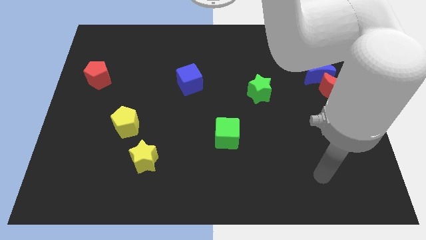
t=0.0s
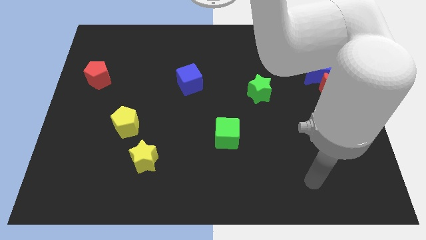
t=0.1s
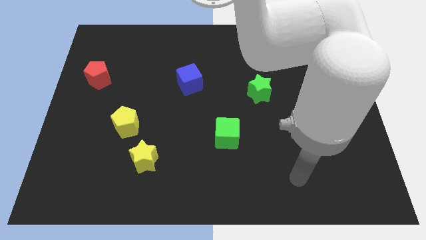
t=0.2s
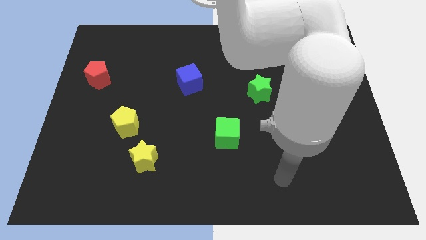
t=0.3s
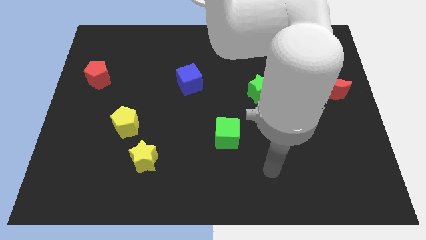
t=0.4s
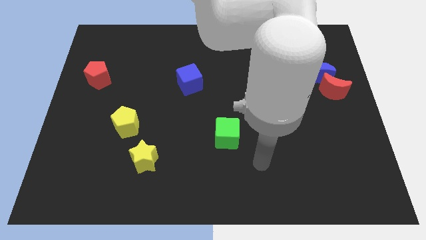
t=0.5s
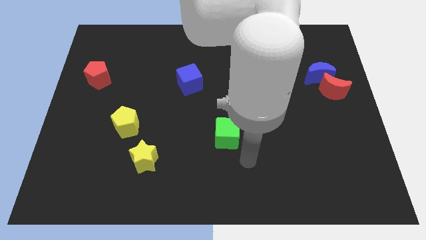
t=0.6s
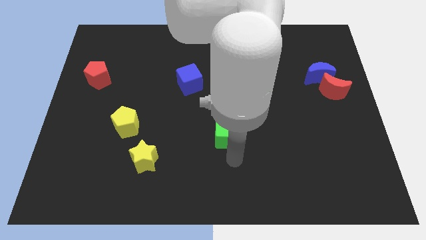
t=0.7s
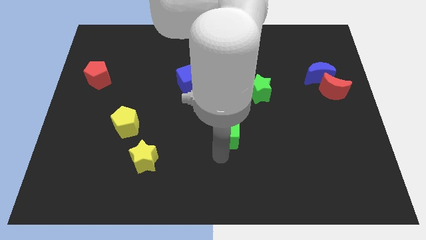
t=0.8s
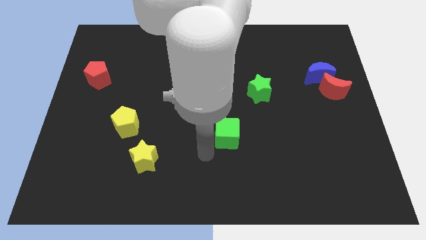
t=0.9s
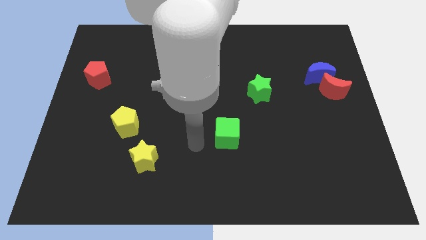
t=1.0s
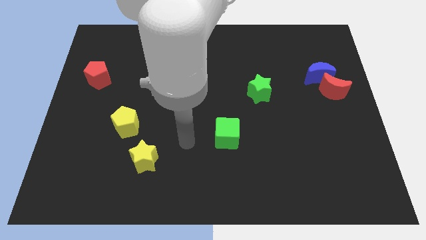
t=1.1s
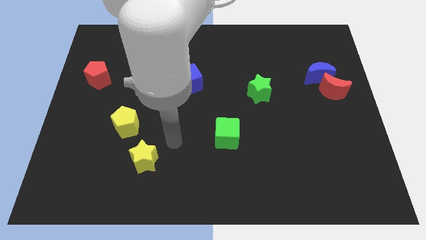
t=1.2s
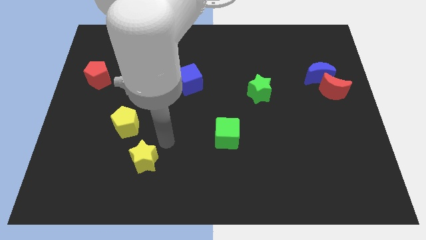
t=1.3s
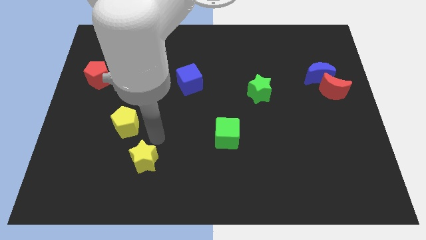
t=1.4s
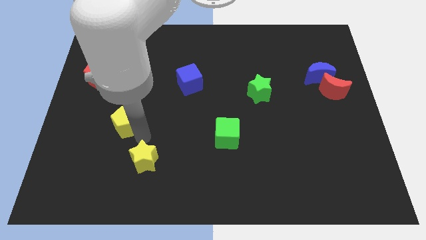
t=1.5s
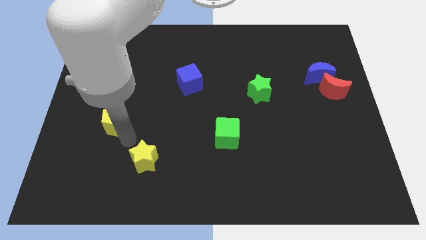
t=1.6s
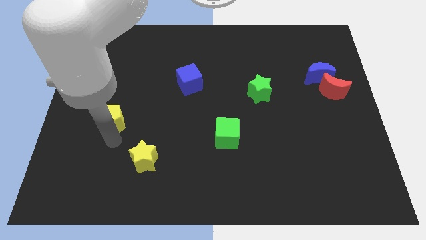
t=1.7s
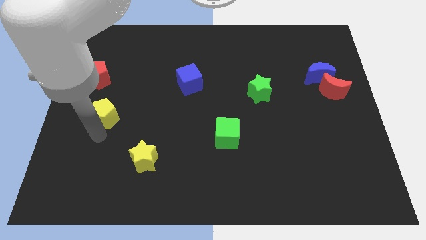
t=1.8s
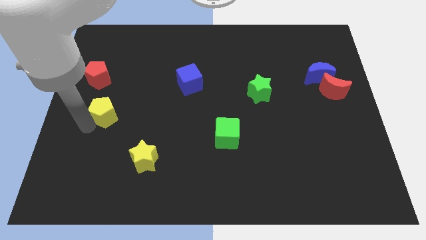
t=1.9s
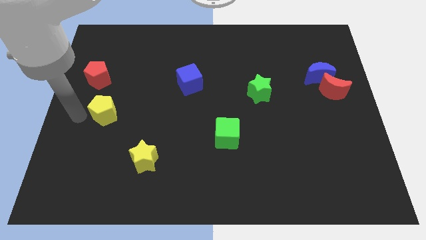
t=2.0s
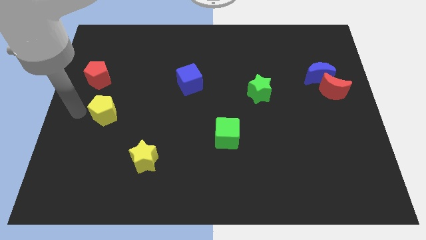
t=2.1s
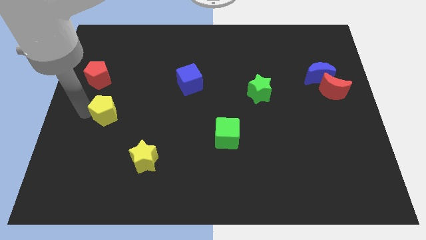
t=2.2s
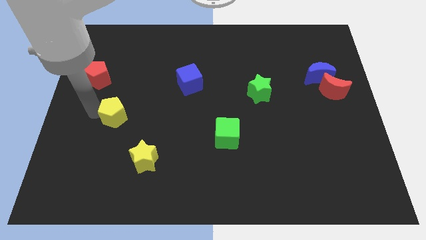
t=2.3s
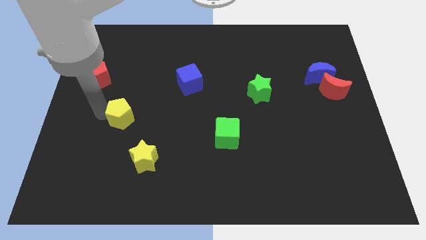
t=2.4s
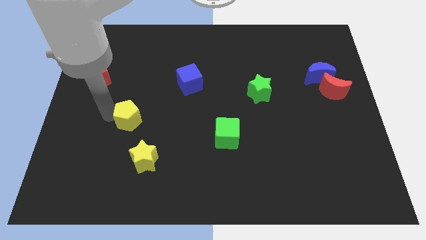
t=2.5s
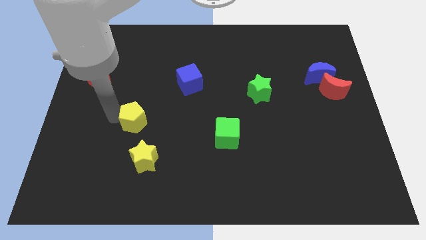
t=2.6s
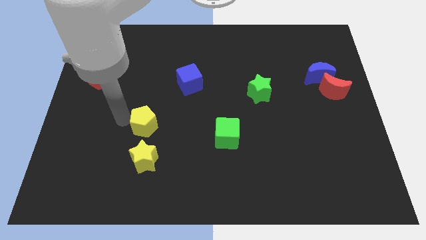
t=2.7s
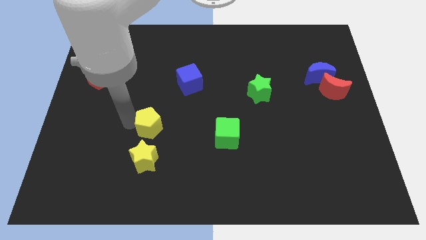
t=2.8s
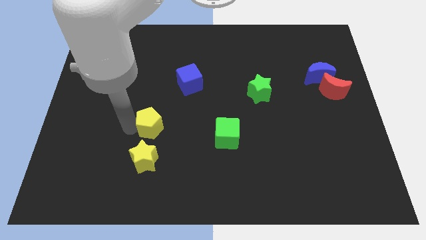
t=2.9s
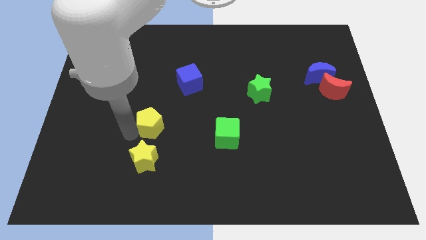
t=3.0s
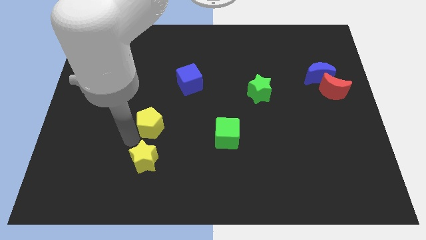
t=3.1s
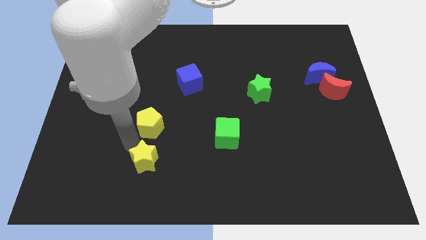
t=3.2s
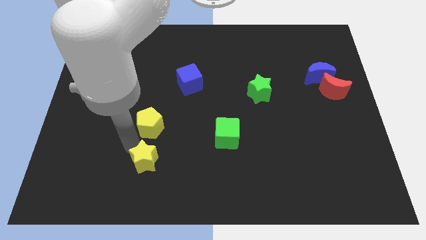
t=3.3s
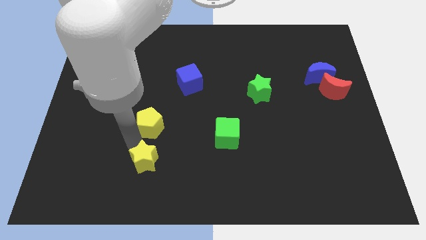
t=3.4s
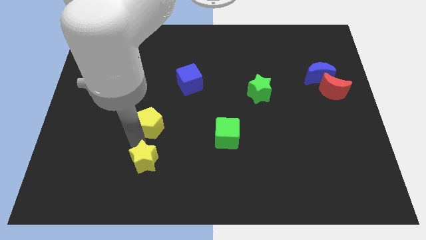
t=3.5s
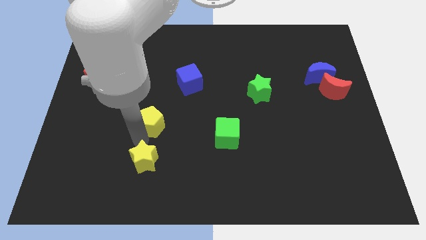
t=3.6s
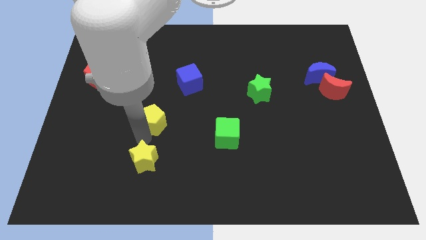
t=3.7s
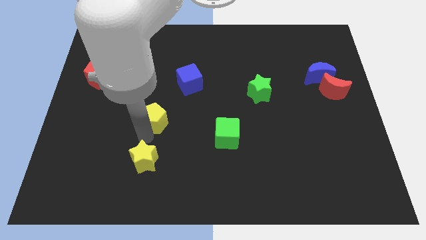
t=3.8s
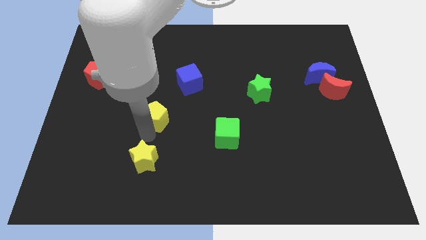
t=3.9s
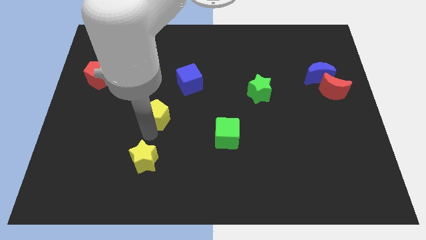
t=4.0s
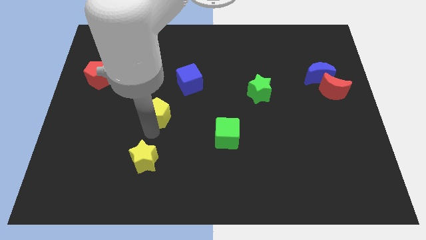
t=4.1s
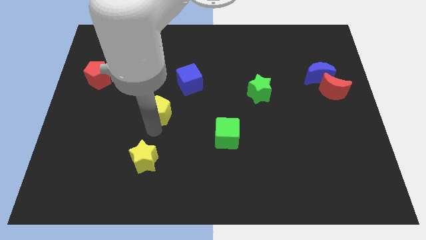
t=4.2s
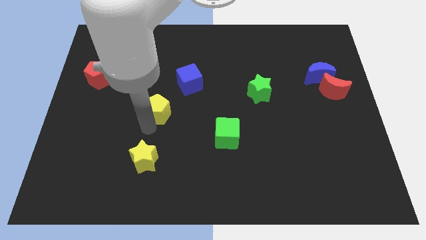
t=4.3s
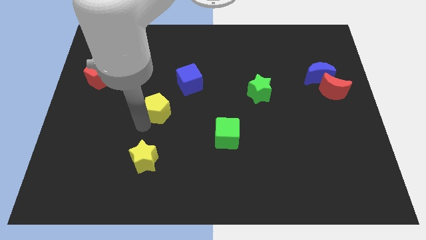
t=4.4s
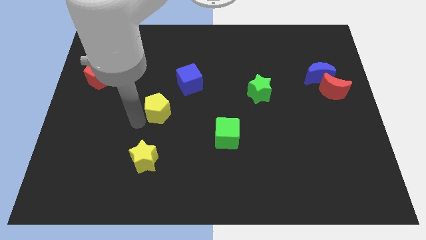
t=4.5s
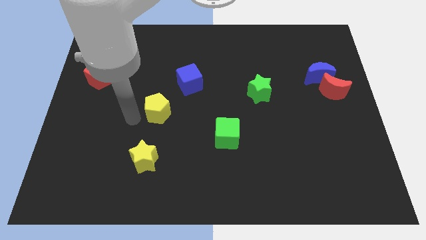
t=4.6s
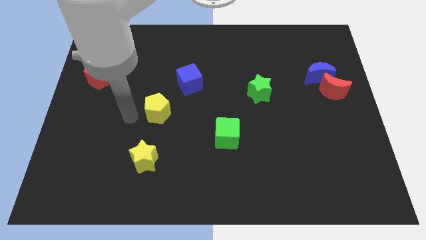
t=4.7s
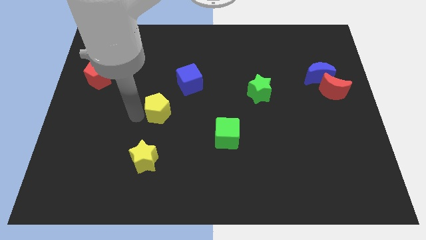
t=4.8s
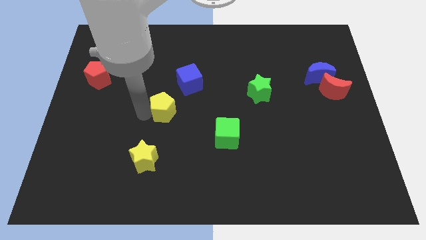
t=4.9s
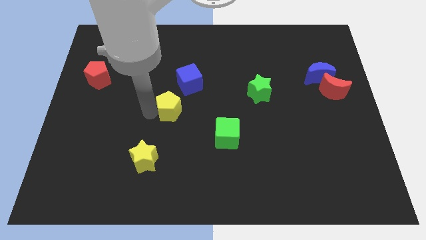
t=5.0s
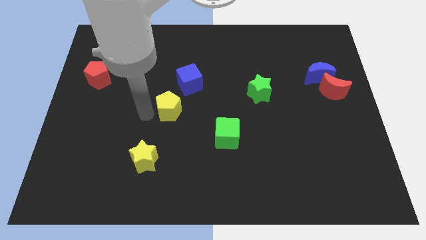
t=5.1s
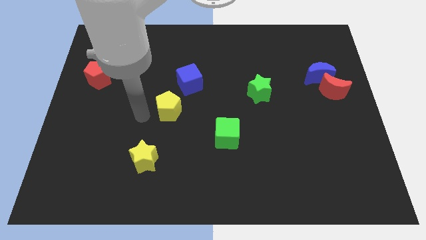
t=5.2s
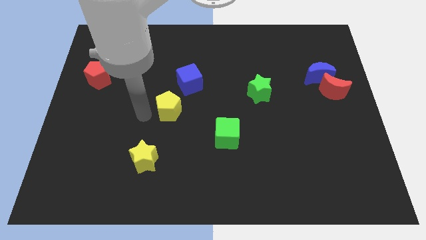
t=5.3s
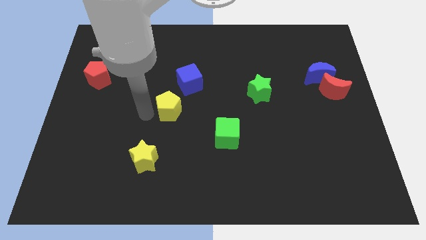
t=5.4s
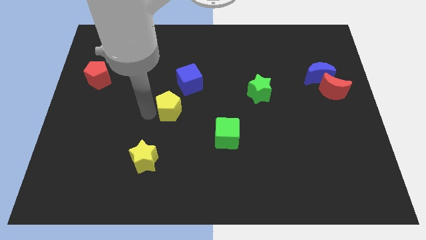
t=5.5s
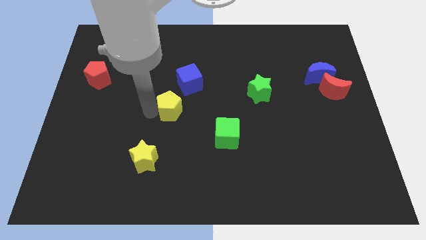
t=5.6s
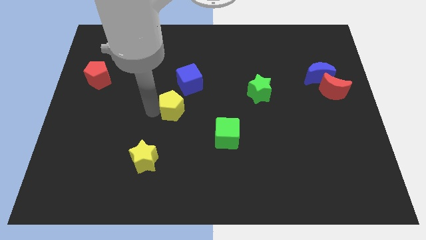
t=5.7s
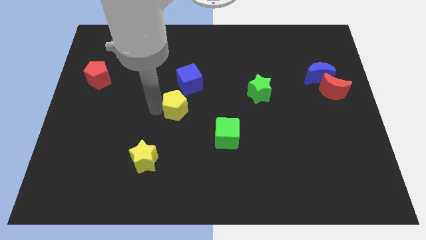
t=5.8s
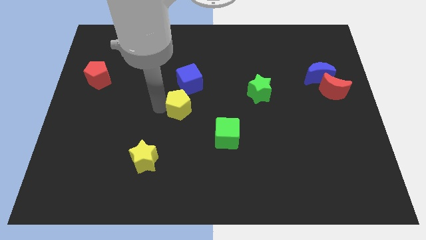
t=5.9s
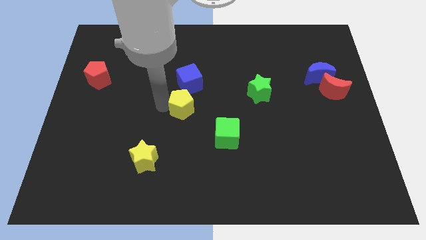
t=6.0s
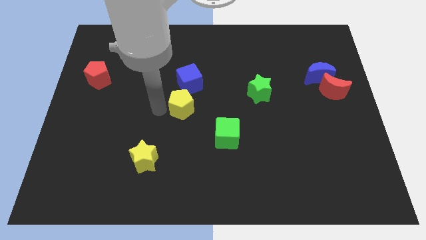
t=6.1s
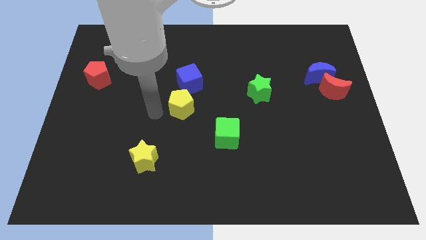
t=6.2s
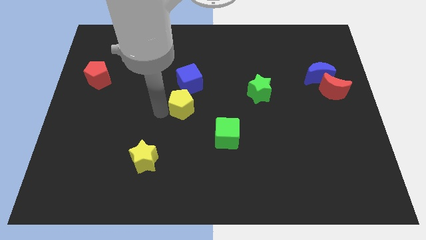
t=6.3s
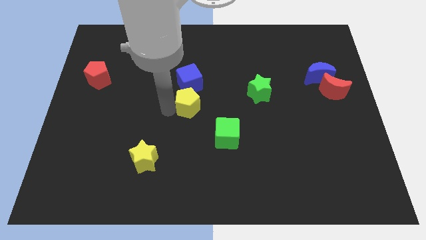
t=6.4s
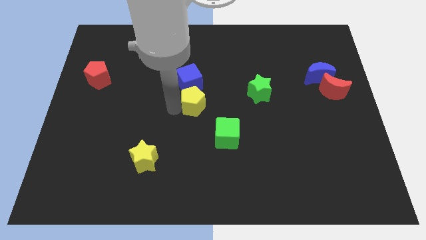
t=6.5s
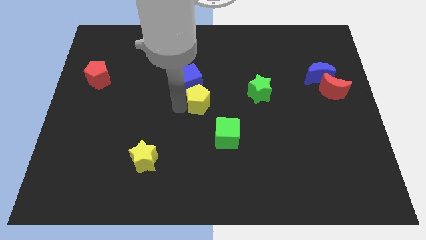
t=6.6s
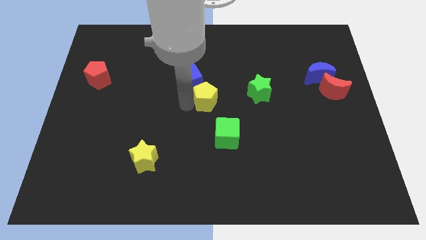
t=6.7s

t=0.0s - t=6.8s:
slide the yellow pentagon to the top side of the green cube
